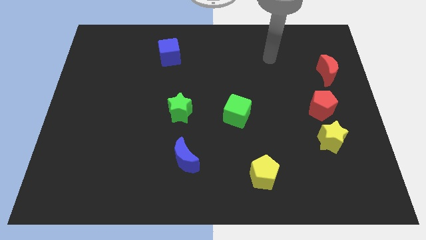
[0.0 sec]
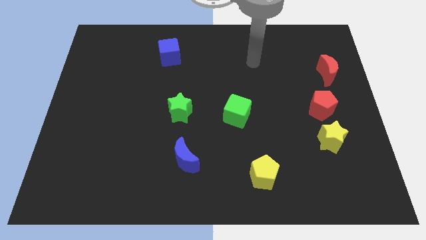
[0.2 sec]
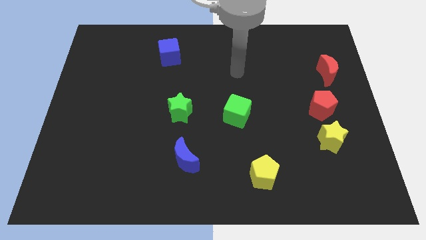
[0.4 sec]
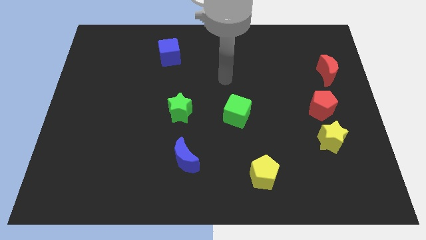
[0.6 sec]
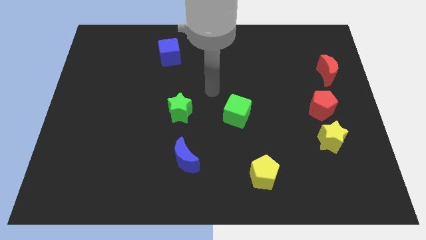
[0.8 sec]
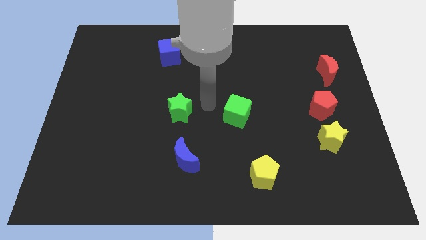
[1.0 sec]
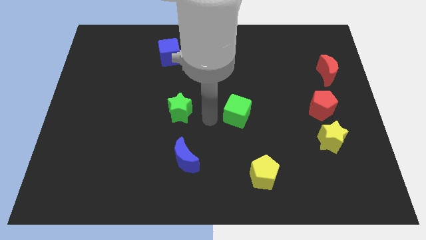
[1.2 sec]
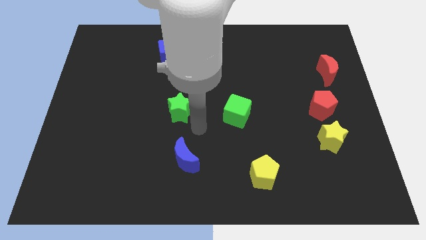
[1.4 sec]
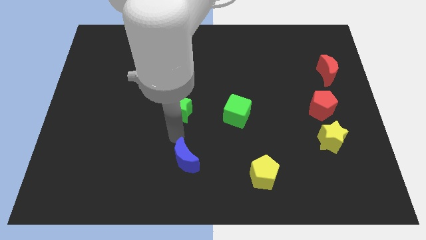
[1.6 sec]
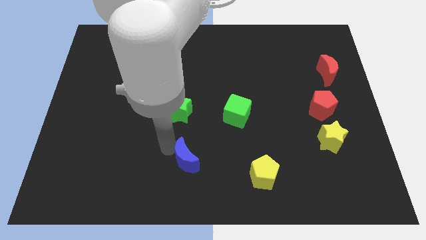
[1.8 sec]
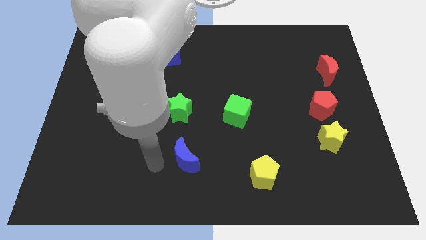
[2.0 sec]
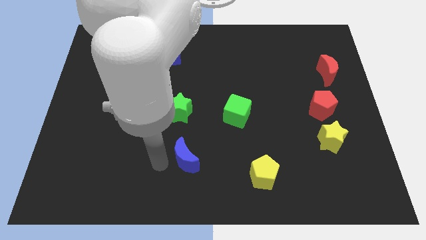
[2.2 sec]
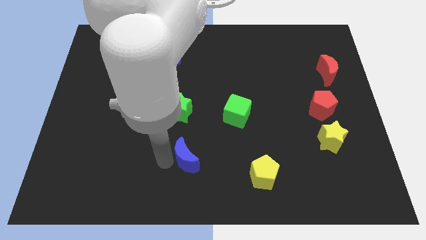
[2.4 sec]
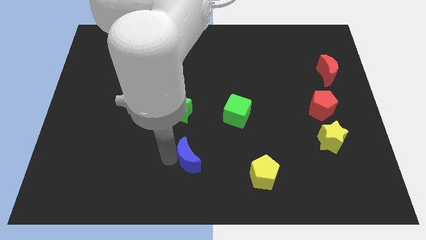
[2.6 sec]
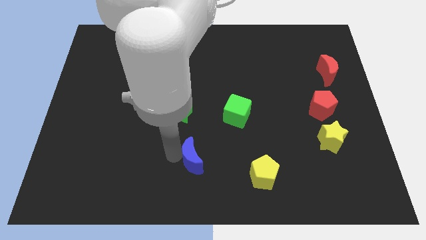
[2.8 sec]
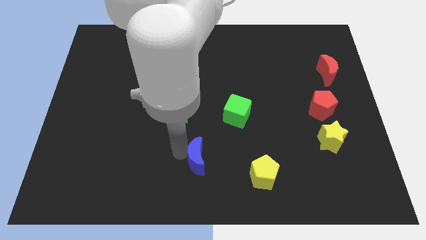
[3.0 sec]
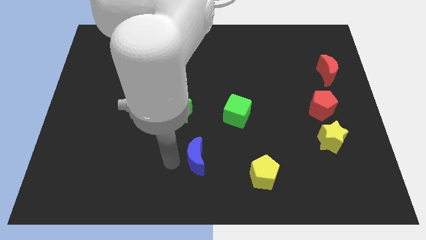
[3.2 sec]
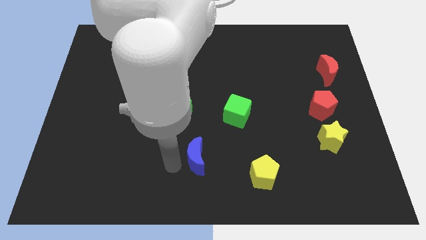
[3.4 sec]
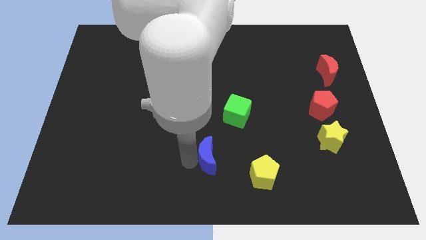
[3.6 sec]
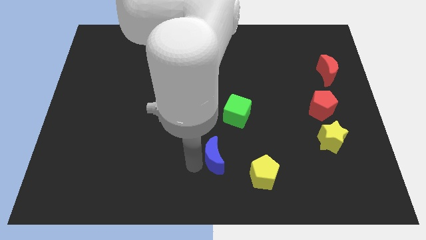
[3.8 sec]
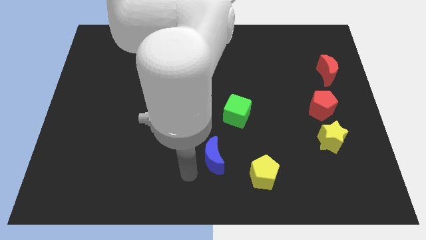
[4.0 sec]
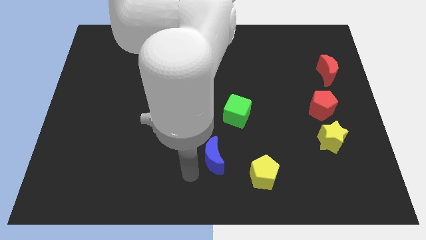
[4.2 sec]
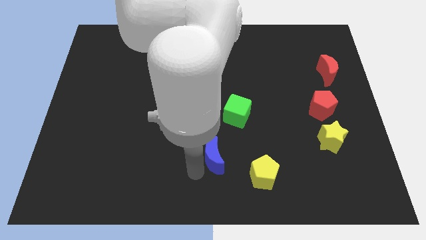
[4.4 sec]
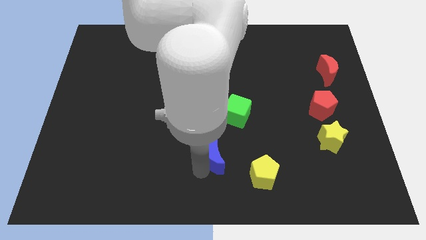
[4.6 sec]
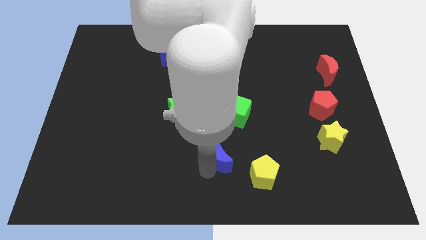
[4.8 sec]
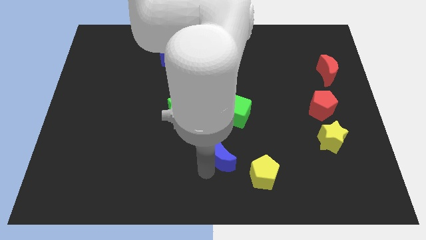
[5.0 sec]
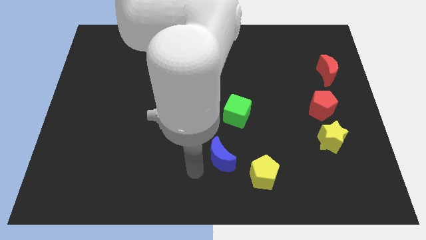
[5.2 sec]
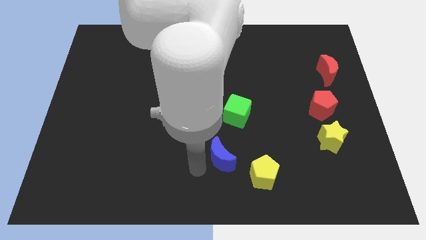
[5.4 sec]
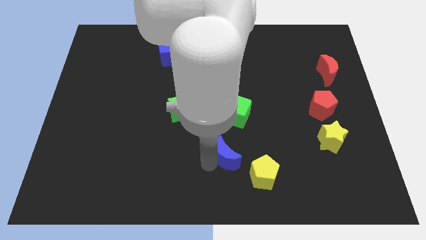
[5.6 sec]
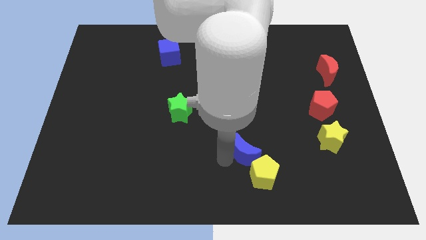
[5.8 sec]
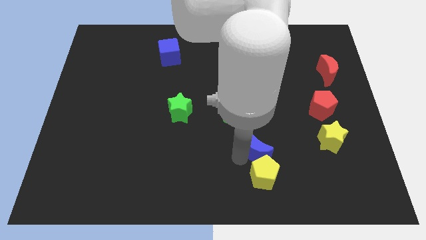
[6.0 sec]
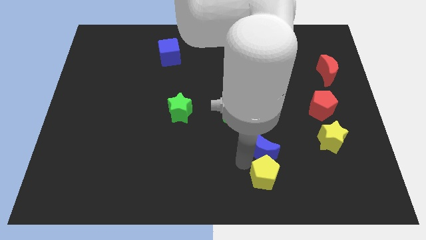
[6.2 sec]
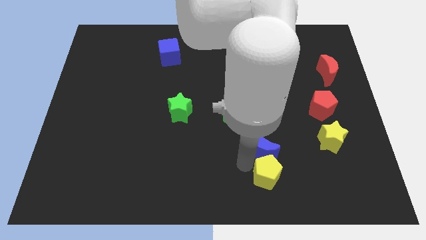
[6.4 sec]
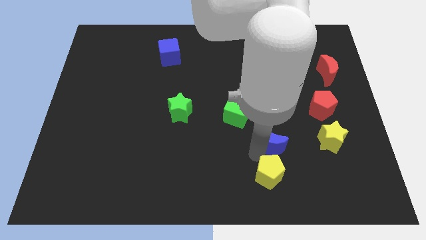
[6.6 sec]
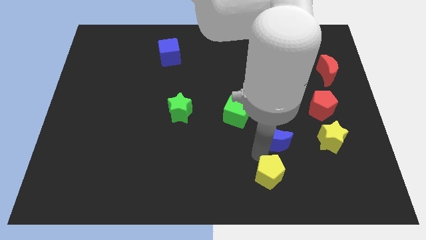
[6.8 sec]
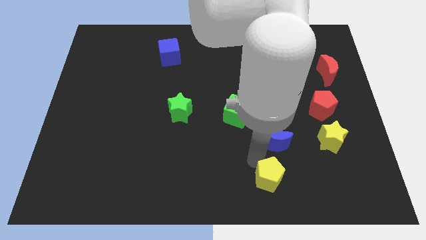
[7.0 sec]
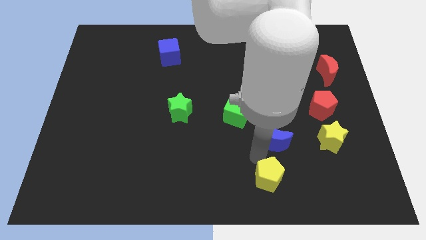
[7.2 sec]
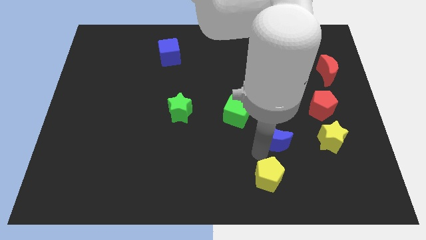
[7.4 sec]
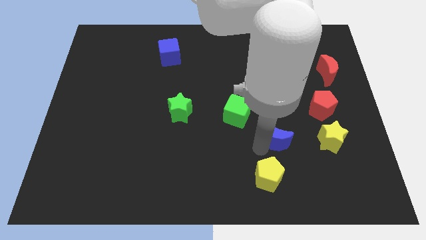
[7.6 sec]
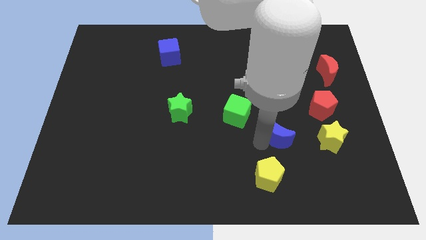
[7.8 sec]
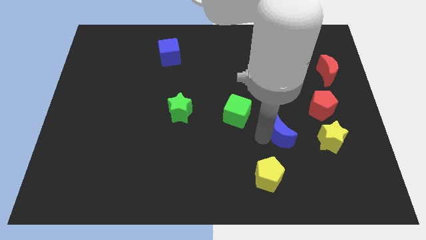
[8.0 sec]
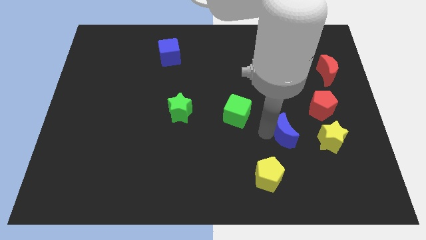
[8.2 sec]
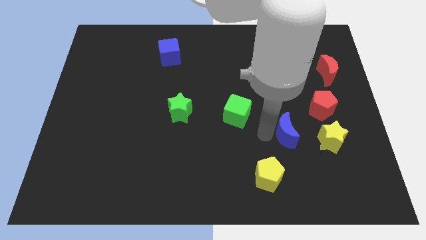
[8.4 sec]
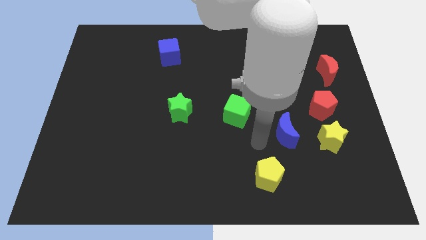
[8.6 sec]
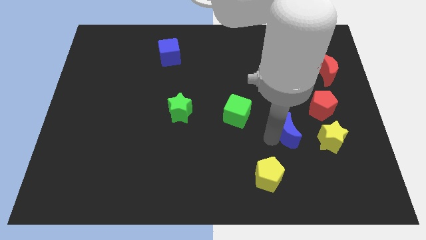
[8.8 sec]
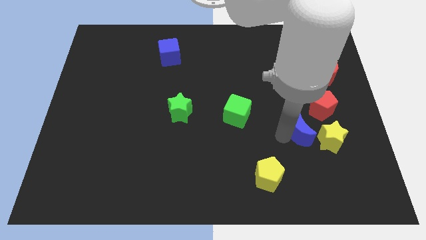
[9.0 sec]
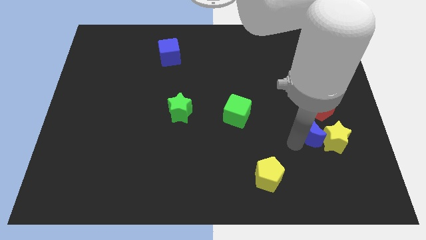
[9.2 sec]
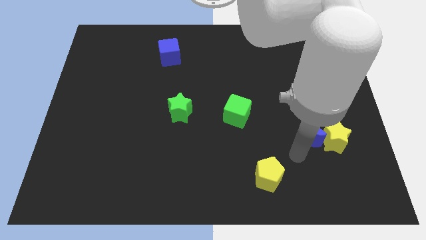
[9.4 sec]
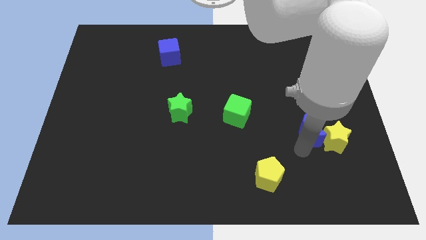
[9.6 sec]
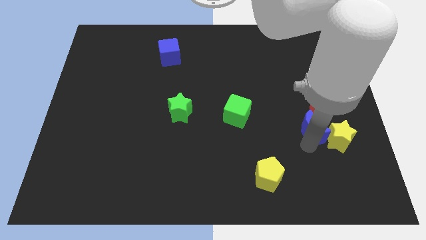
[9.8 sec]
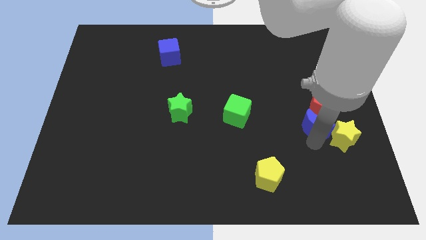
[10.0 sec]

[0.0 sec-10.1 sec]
move the blue moon next to the red pentagon

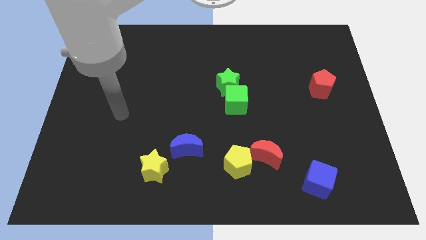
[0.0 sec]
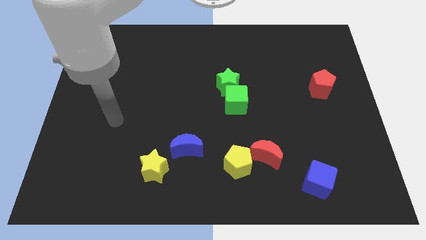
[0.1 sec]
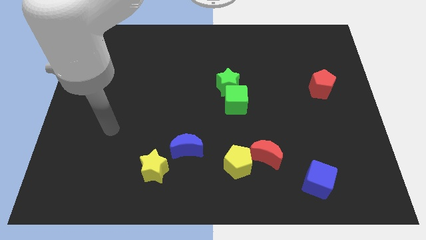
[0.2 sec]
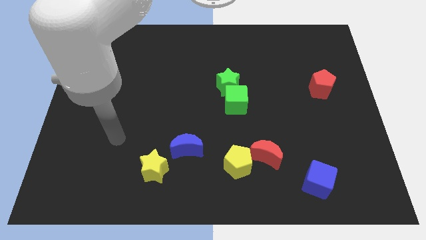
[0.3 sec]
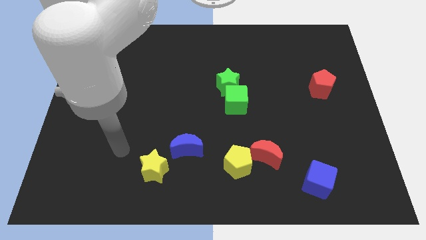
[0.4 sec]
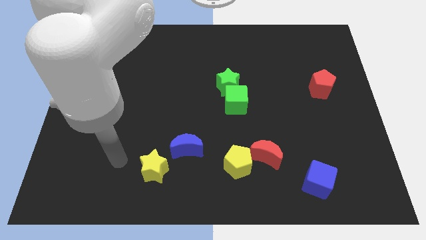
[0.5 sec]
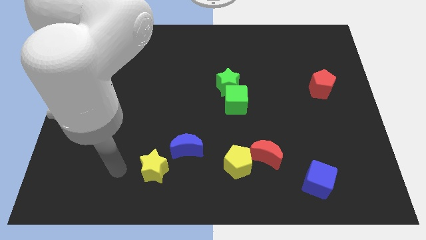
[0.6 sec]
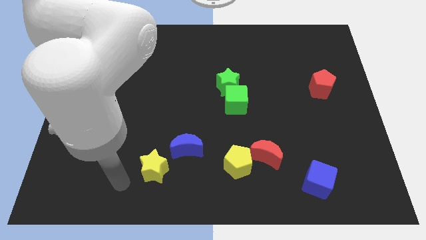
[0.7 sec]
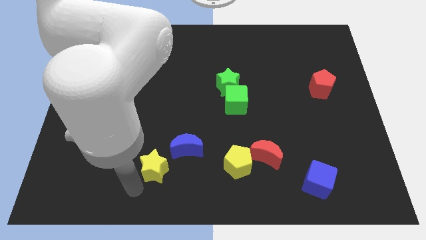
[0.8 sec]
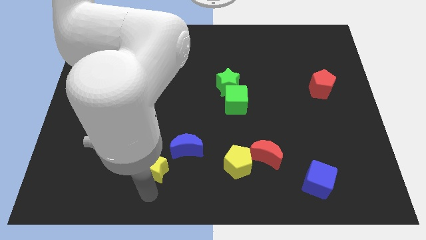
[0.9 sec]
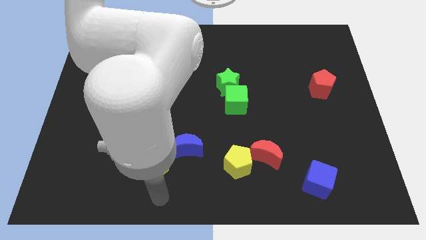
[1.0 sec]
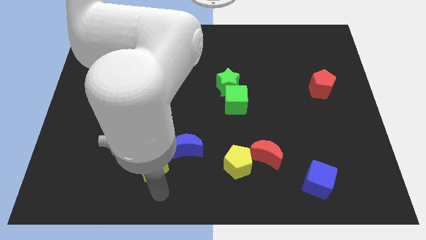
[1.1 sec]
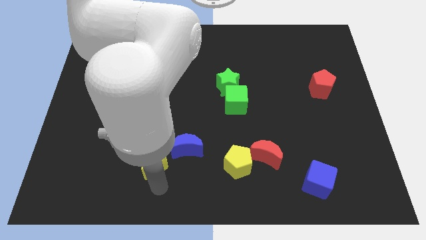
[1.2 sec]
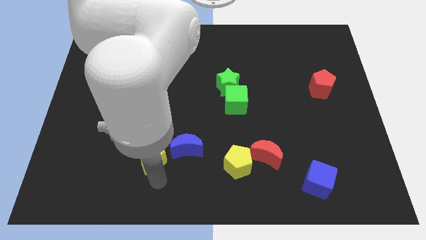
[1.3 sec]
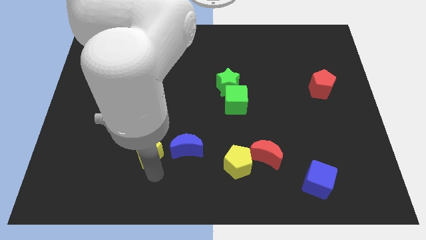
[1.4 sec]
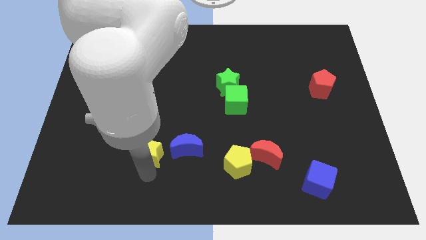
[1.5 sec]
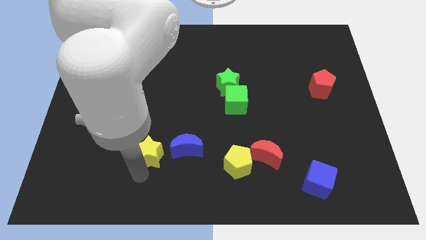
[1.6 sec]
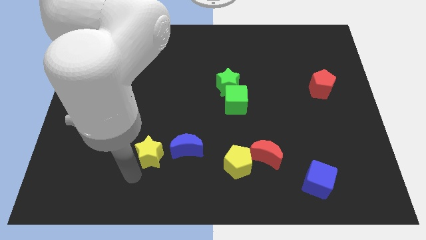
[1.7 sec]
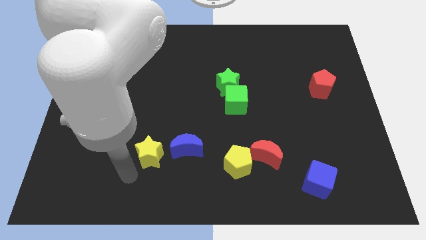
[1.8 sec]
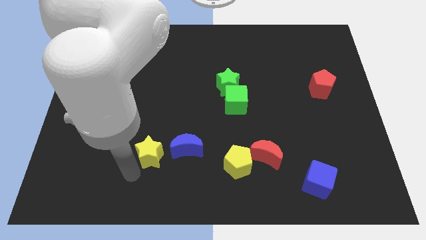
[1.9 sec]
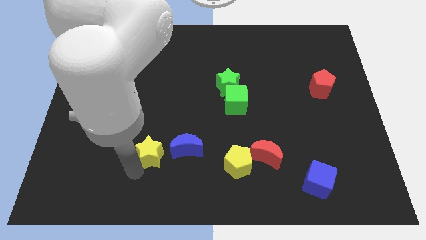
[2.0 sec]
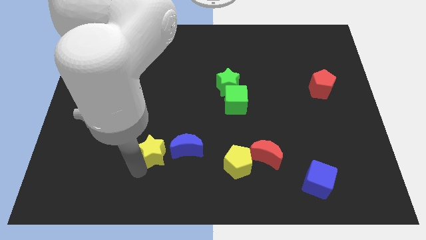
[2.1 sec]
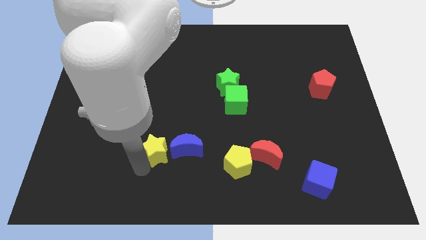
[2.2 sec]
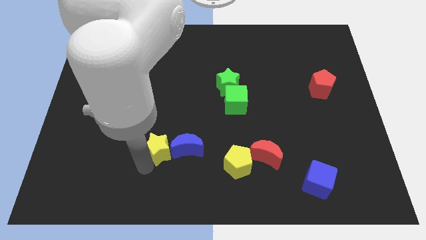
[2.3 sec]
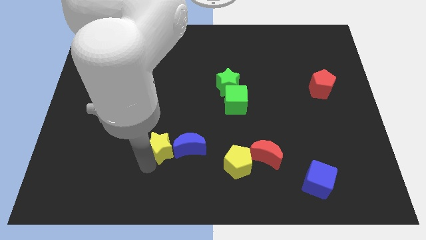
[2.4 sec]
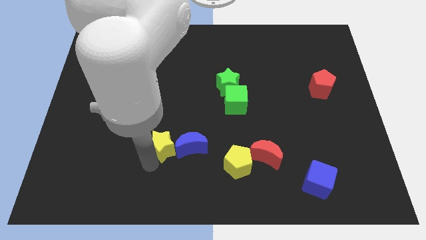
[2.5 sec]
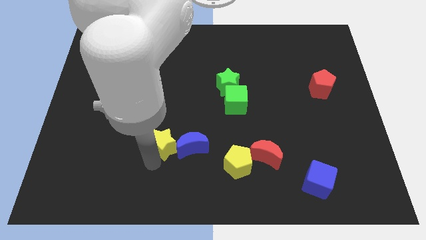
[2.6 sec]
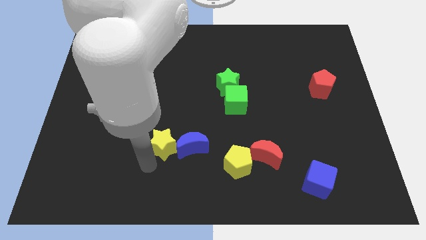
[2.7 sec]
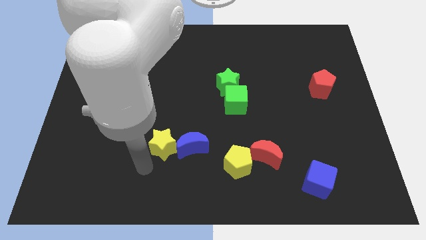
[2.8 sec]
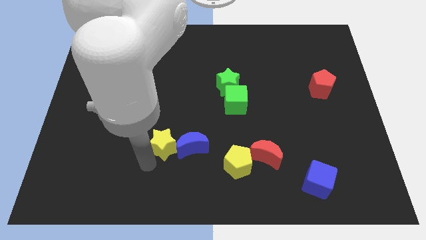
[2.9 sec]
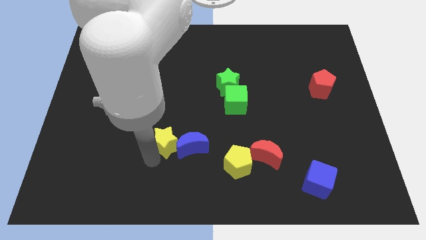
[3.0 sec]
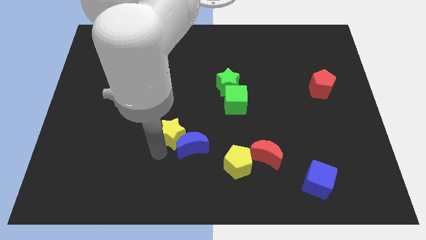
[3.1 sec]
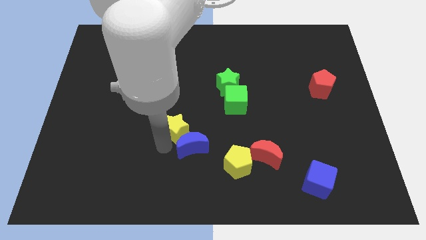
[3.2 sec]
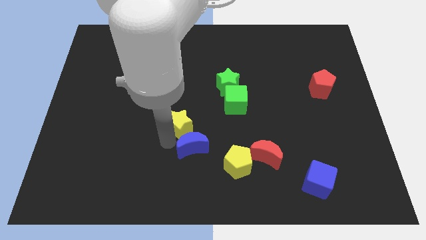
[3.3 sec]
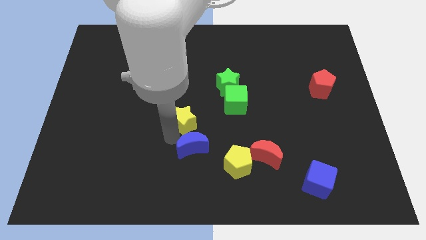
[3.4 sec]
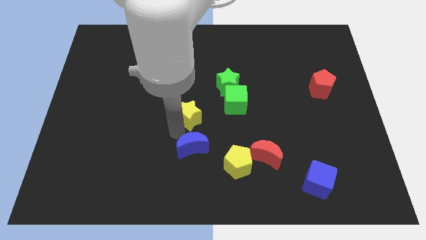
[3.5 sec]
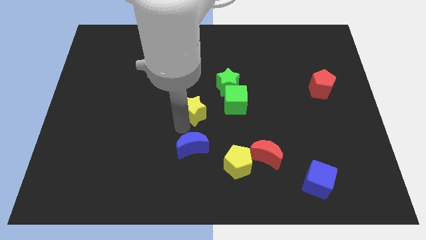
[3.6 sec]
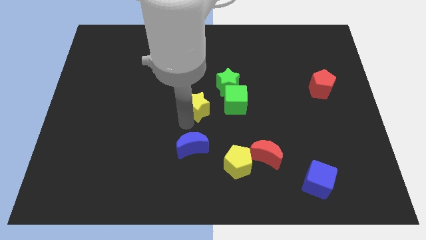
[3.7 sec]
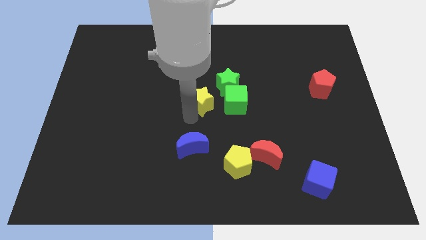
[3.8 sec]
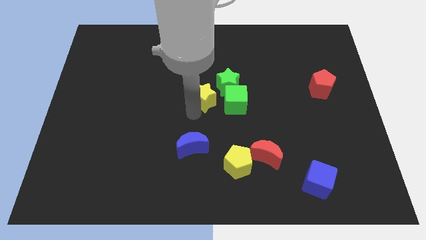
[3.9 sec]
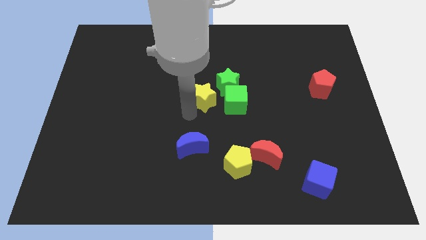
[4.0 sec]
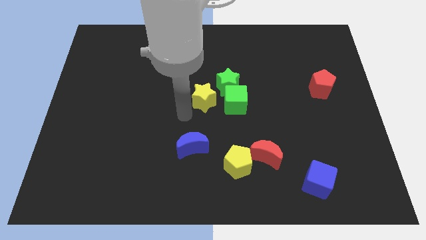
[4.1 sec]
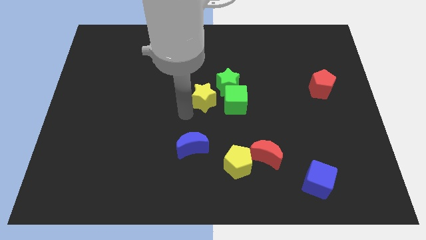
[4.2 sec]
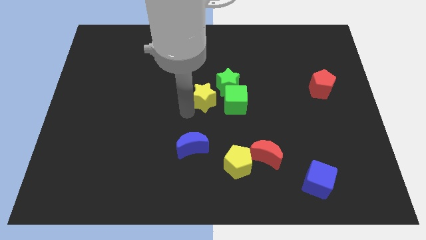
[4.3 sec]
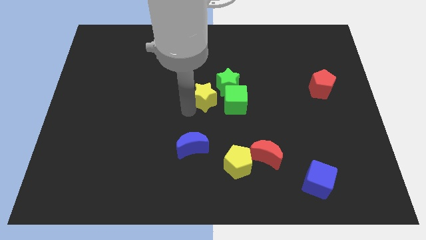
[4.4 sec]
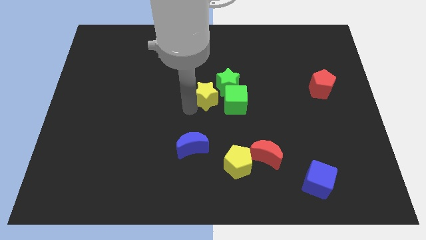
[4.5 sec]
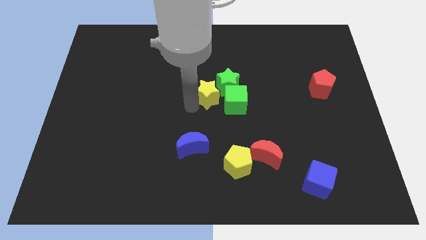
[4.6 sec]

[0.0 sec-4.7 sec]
move the yellow star to the green star
